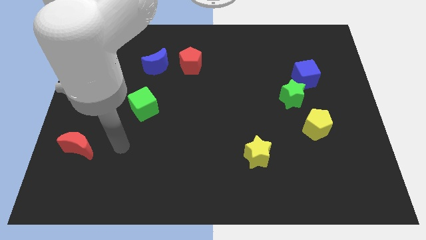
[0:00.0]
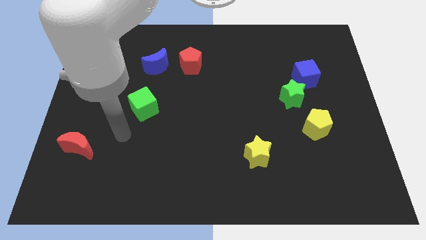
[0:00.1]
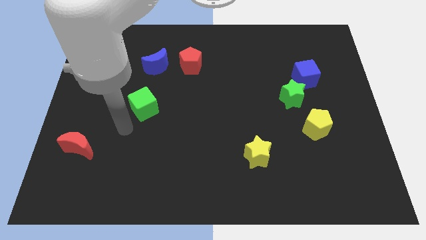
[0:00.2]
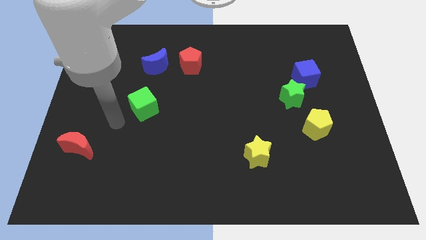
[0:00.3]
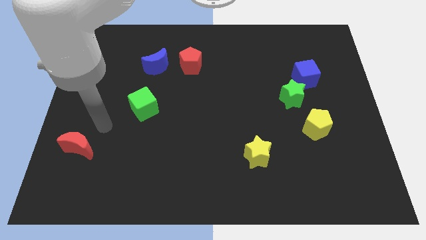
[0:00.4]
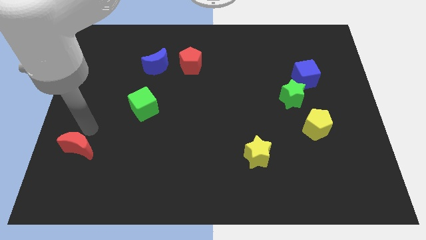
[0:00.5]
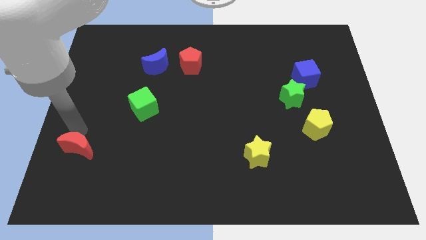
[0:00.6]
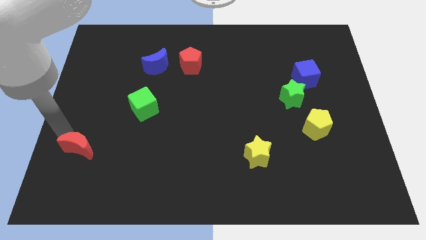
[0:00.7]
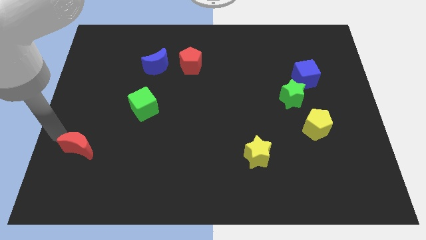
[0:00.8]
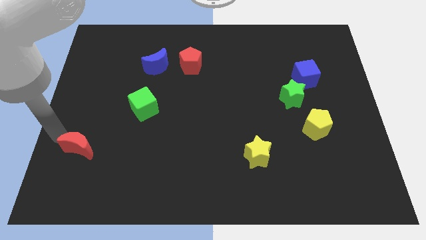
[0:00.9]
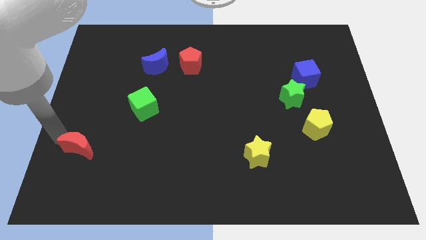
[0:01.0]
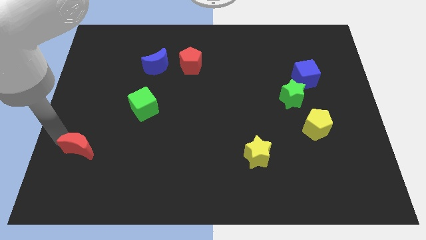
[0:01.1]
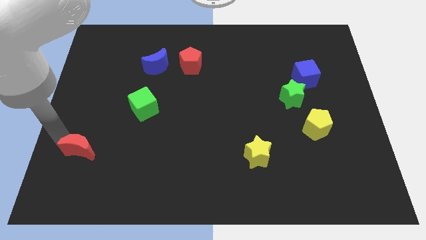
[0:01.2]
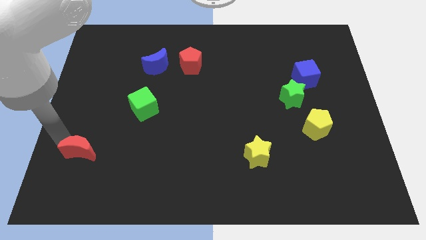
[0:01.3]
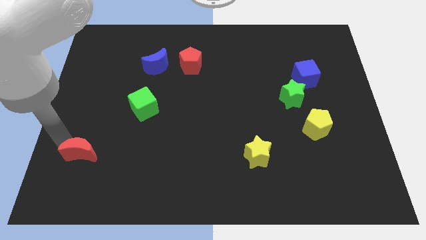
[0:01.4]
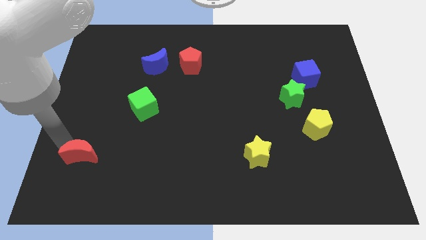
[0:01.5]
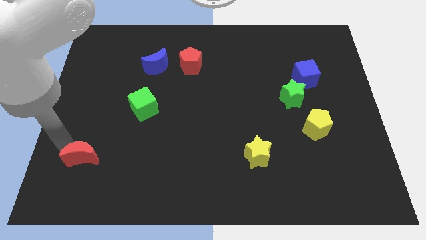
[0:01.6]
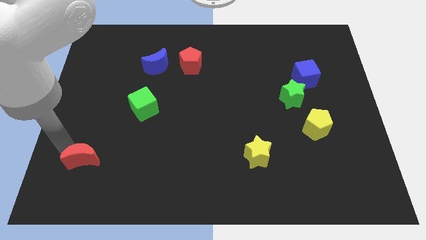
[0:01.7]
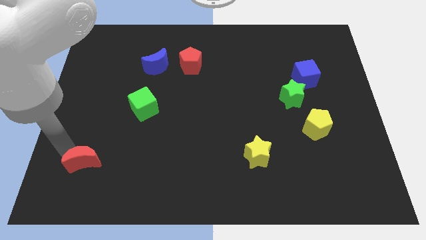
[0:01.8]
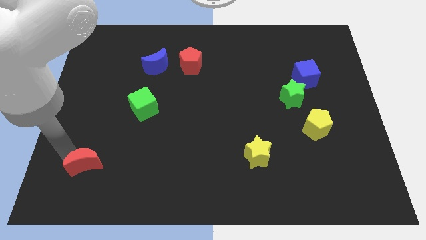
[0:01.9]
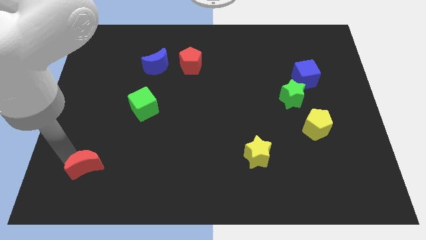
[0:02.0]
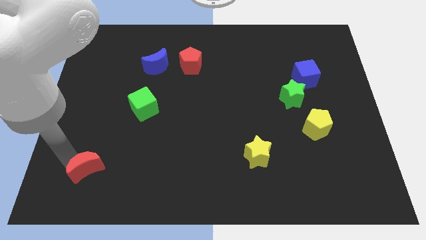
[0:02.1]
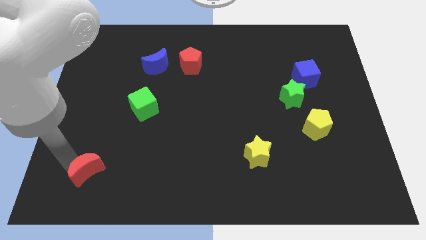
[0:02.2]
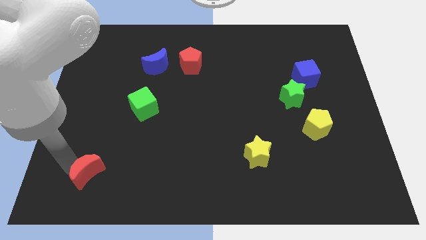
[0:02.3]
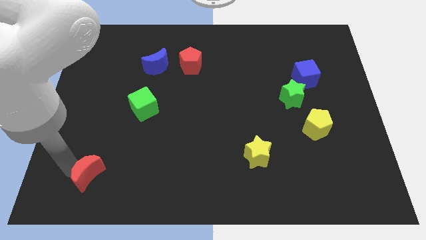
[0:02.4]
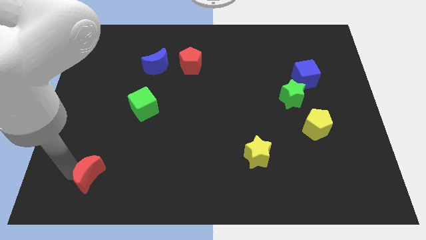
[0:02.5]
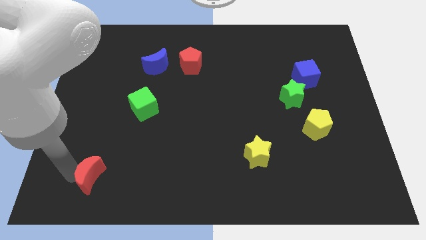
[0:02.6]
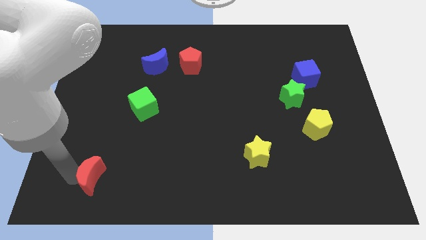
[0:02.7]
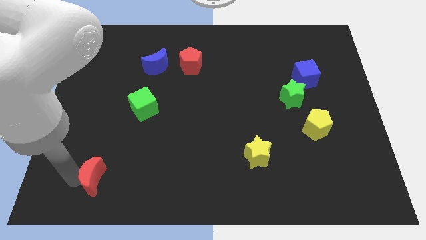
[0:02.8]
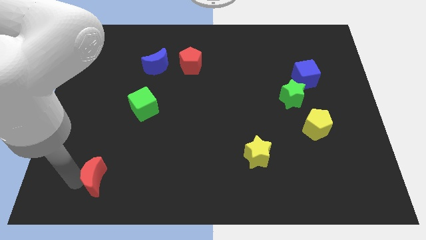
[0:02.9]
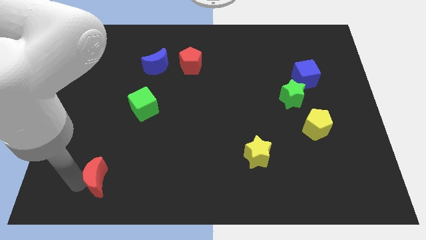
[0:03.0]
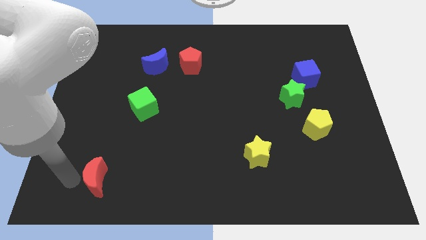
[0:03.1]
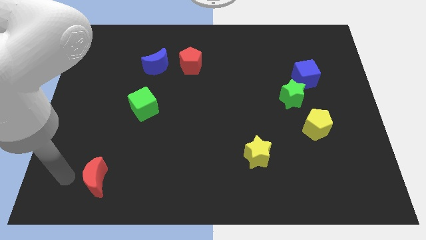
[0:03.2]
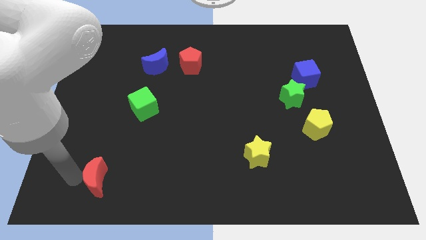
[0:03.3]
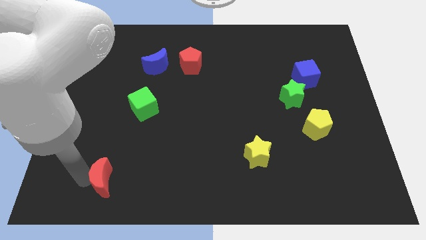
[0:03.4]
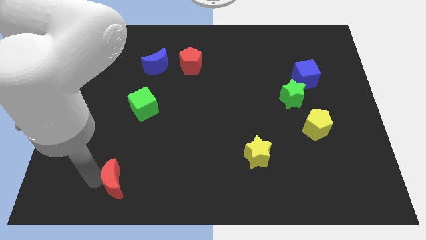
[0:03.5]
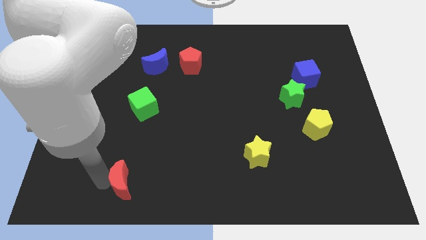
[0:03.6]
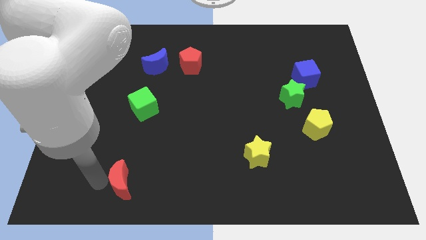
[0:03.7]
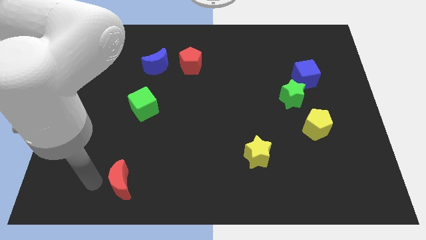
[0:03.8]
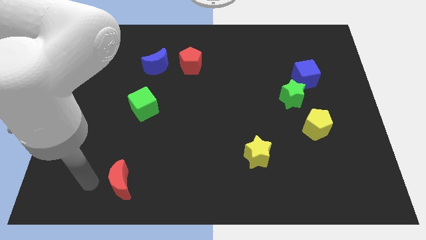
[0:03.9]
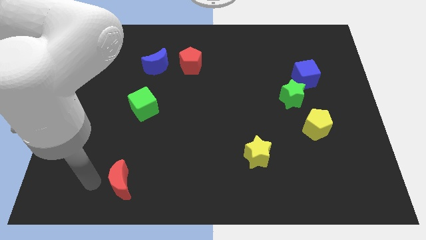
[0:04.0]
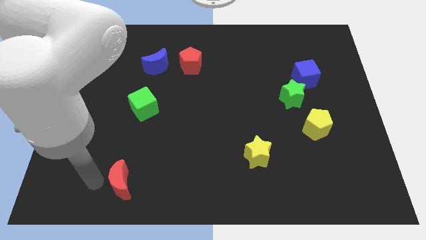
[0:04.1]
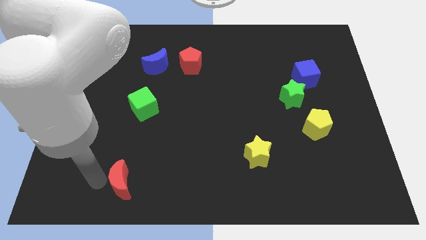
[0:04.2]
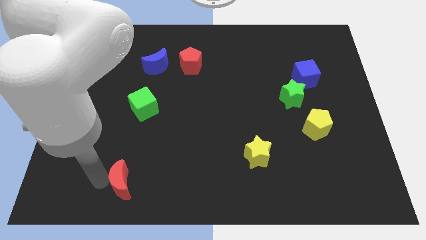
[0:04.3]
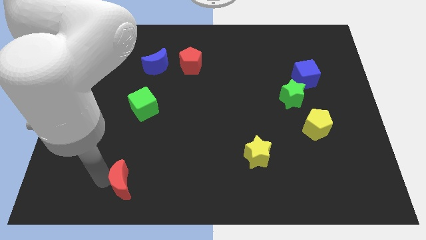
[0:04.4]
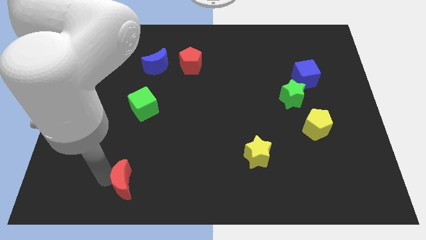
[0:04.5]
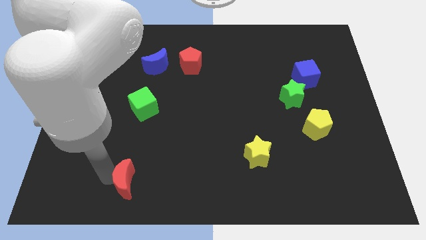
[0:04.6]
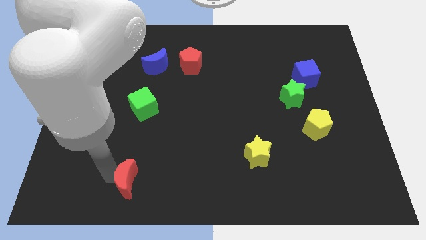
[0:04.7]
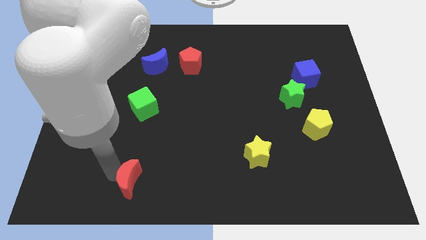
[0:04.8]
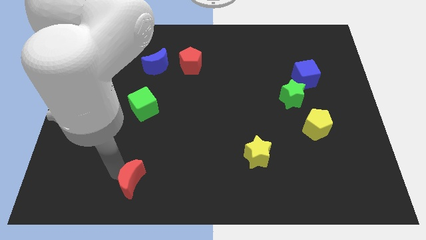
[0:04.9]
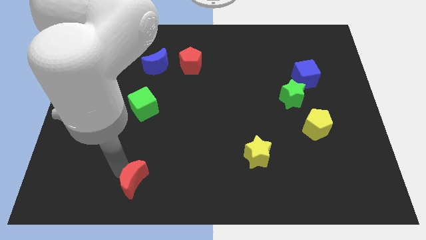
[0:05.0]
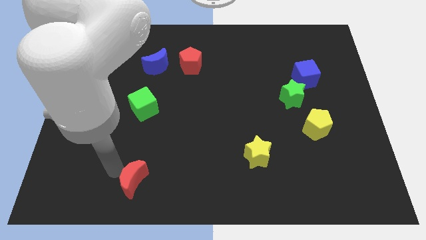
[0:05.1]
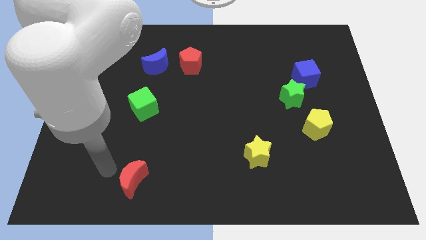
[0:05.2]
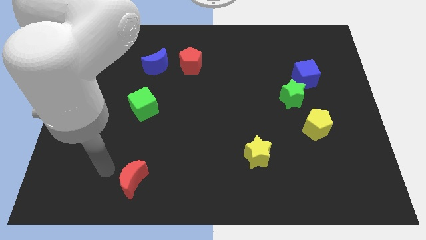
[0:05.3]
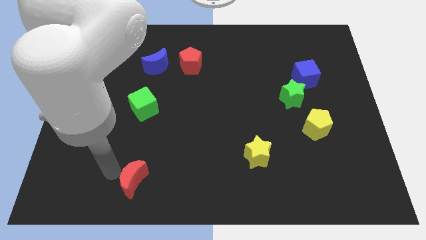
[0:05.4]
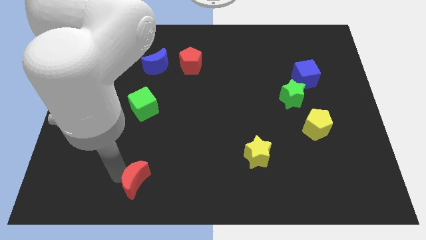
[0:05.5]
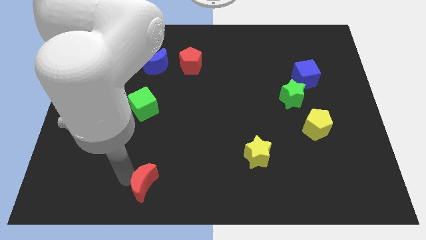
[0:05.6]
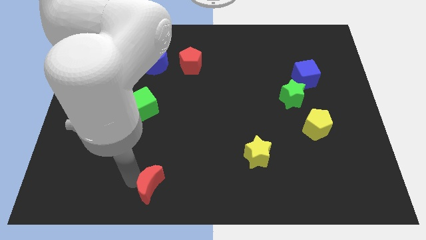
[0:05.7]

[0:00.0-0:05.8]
slide the red moon to the bottom

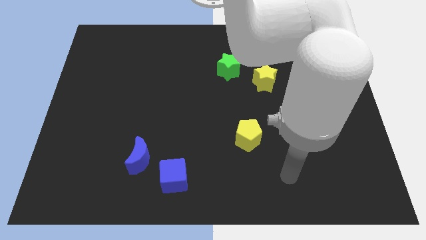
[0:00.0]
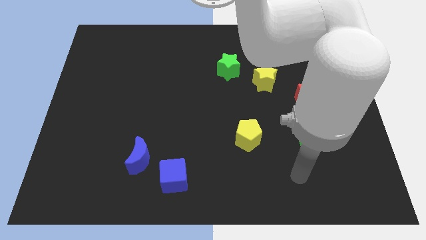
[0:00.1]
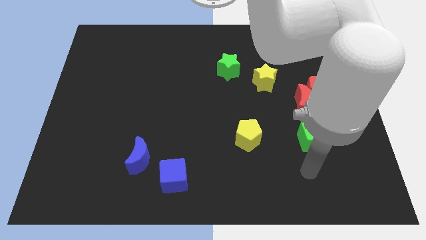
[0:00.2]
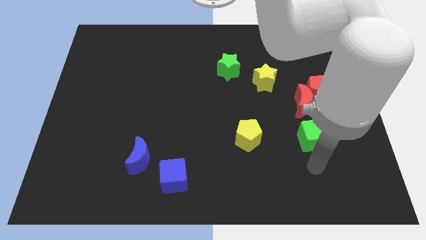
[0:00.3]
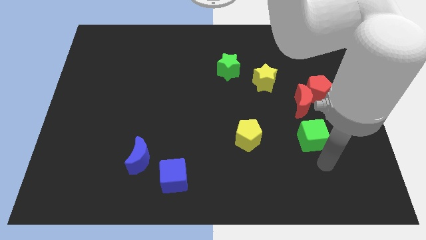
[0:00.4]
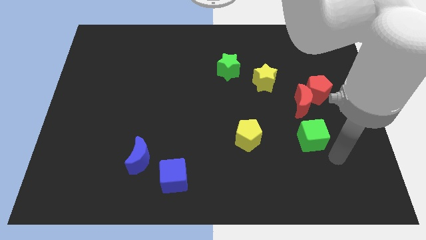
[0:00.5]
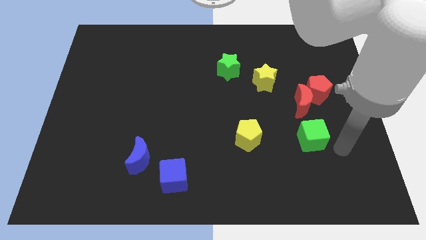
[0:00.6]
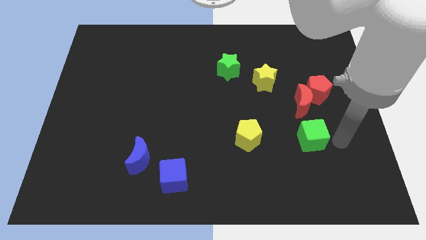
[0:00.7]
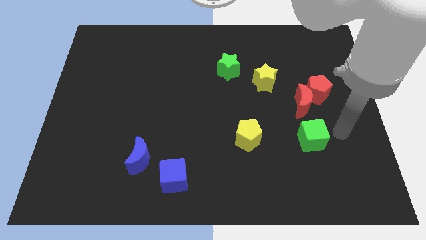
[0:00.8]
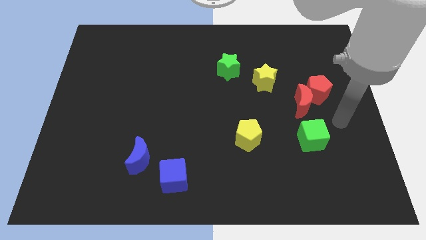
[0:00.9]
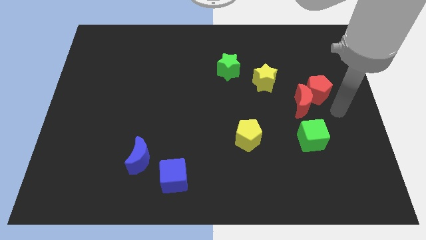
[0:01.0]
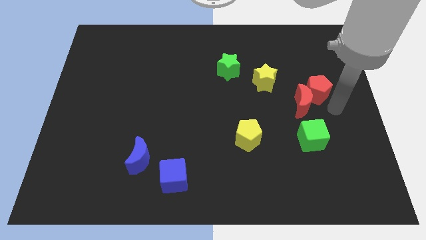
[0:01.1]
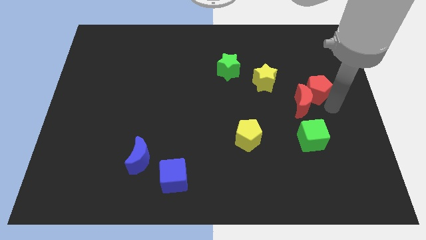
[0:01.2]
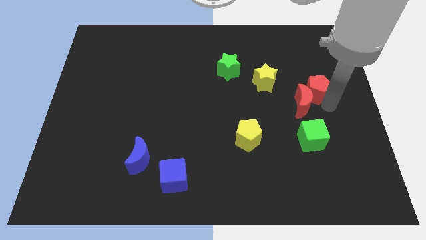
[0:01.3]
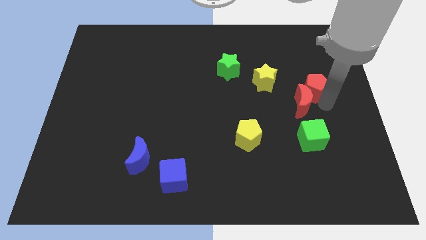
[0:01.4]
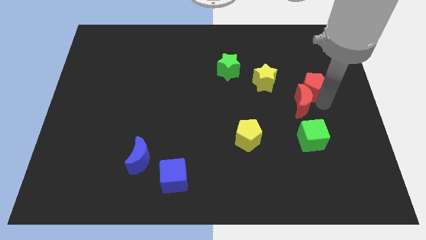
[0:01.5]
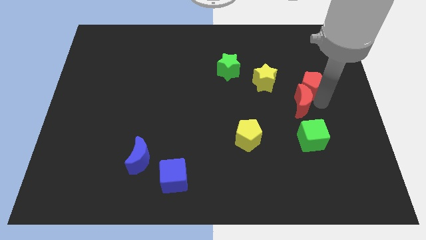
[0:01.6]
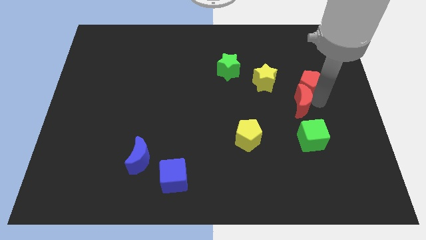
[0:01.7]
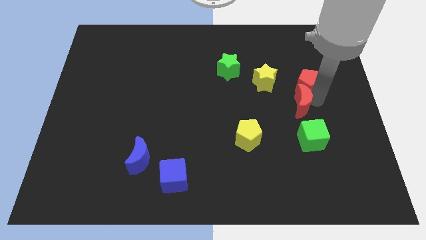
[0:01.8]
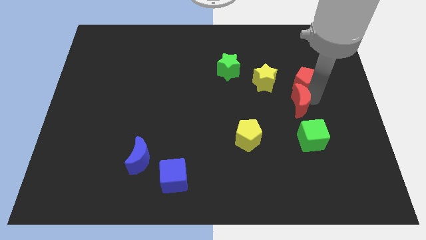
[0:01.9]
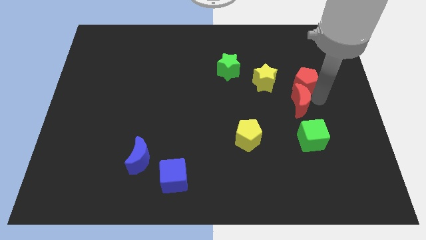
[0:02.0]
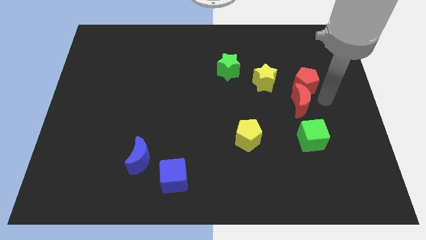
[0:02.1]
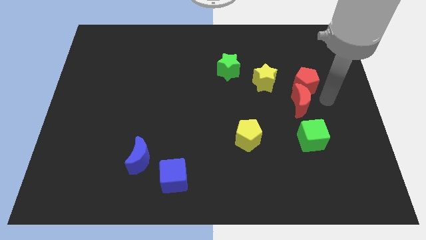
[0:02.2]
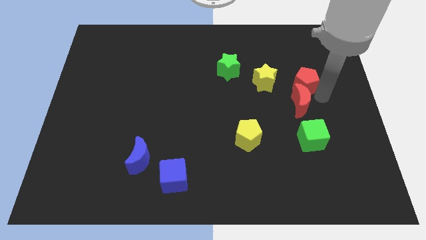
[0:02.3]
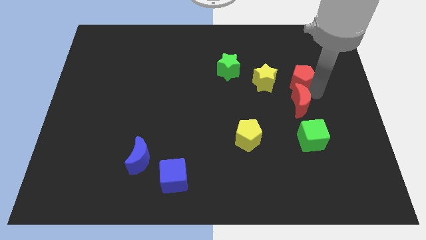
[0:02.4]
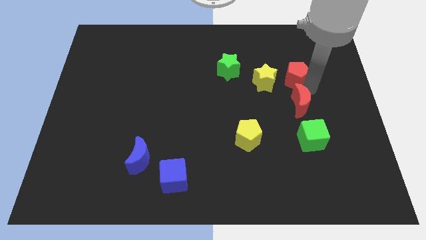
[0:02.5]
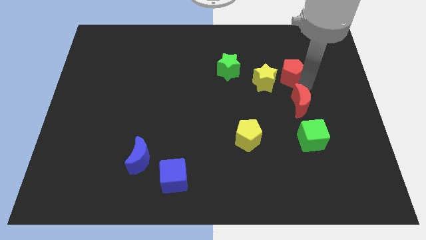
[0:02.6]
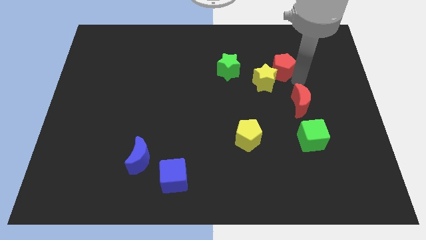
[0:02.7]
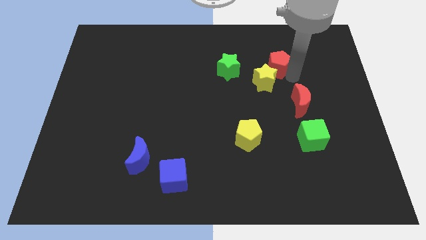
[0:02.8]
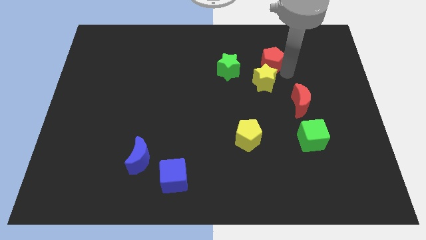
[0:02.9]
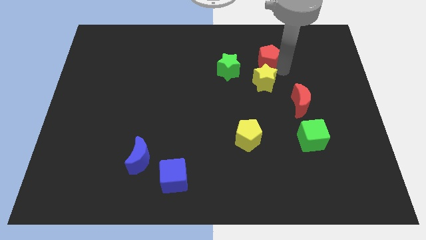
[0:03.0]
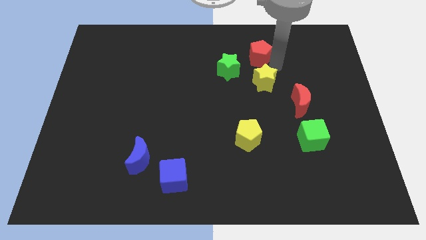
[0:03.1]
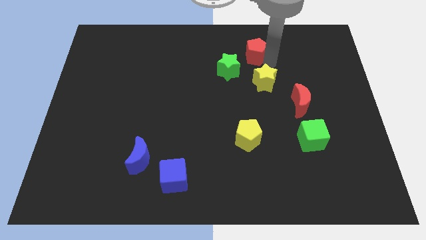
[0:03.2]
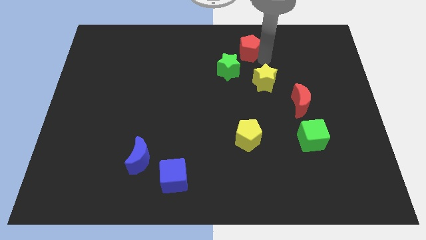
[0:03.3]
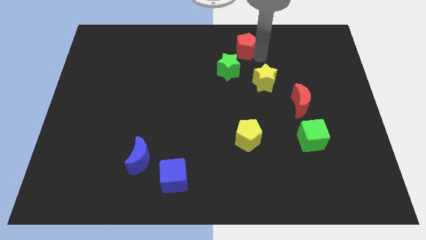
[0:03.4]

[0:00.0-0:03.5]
slide the red pentagon to the top side
